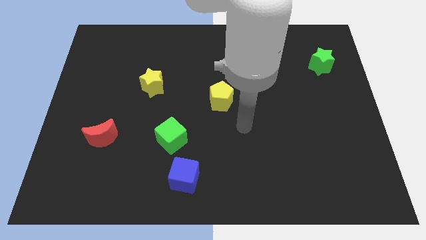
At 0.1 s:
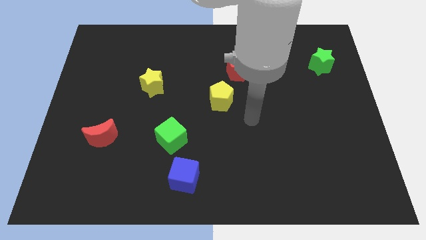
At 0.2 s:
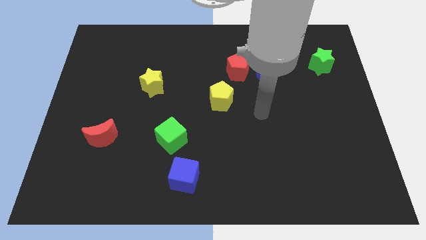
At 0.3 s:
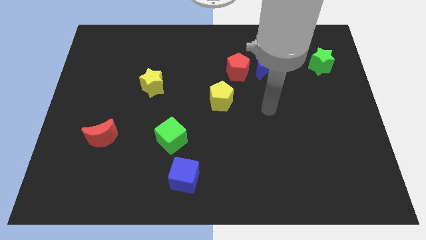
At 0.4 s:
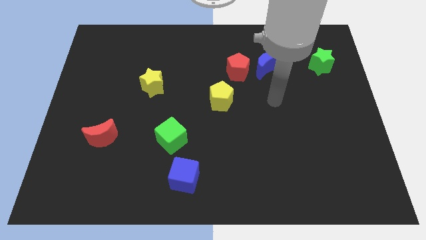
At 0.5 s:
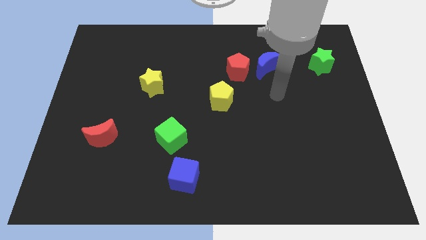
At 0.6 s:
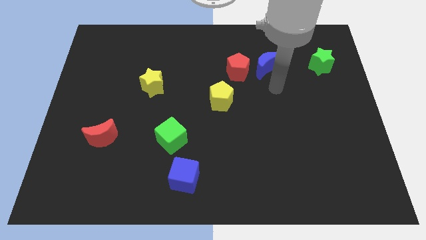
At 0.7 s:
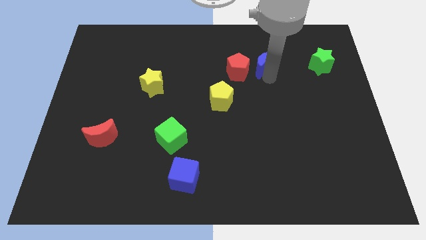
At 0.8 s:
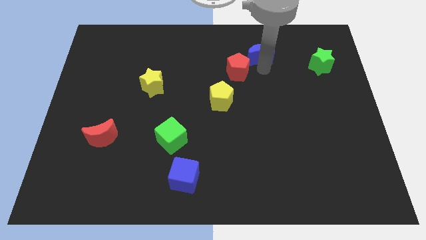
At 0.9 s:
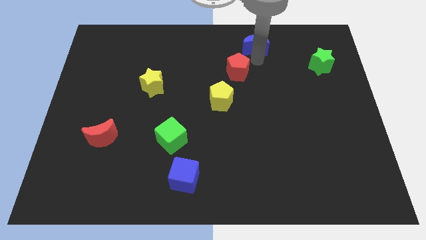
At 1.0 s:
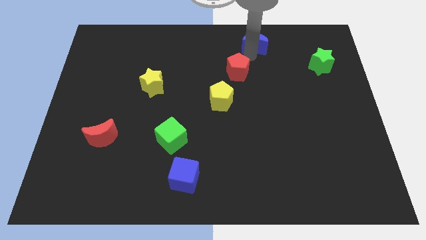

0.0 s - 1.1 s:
move the red pentagon away from the blue moon

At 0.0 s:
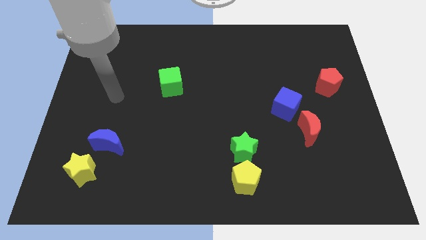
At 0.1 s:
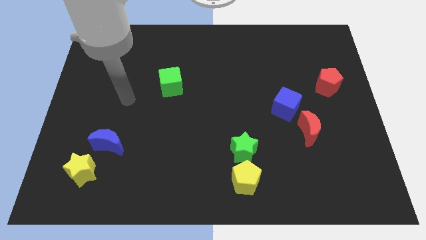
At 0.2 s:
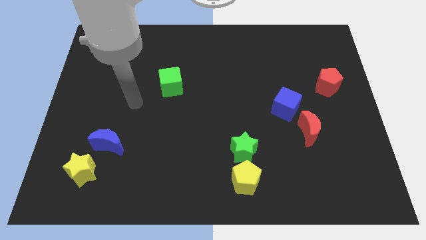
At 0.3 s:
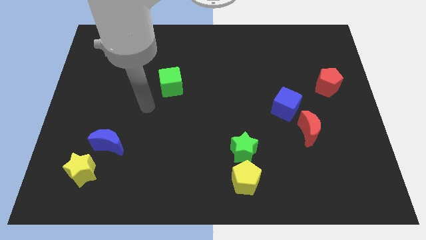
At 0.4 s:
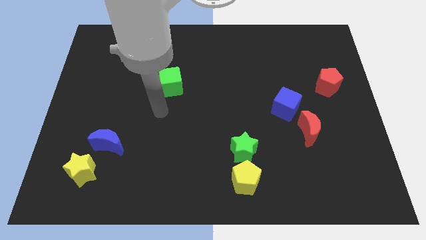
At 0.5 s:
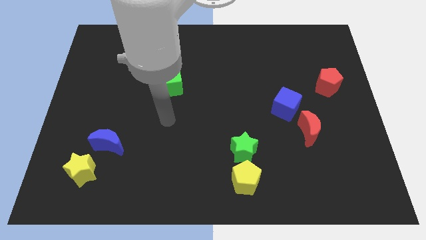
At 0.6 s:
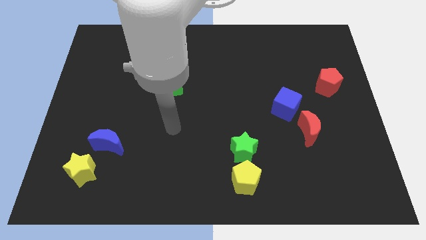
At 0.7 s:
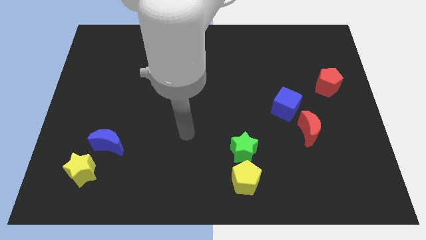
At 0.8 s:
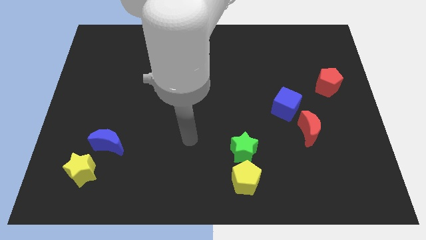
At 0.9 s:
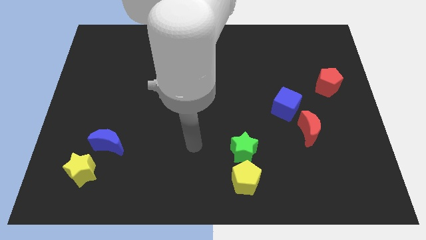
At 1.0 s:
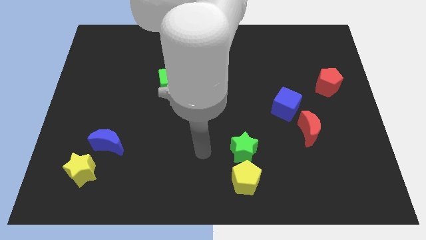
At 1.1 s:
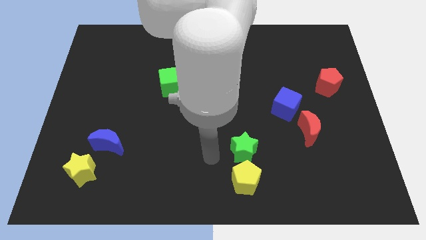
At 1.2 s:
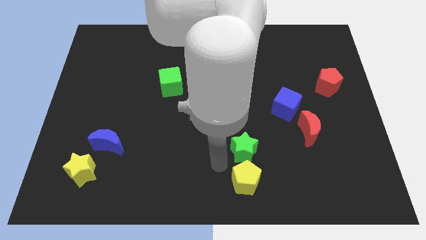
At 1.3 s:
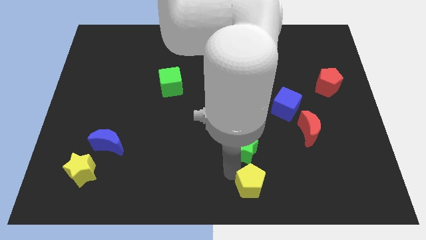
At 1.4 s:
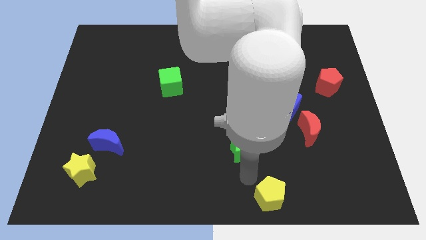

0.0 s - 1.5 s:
separate the green star from the yellow pentagon

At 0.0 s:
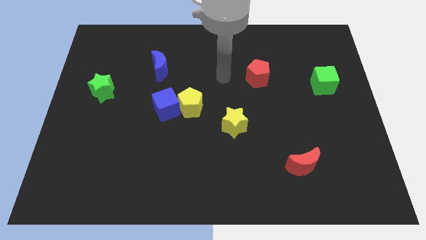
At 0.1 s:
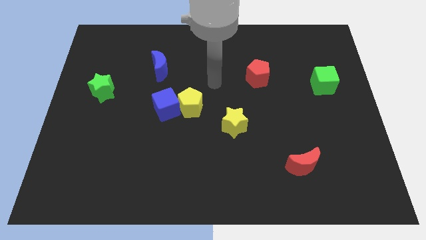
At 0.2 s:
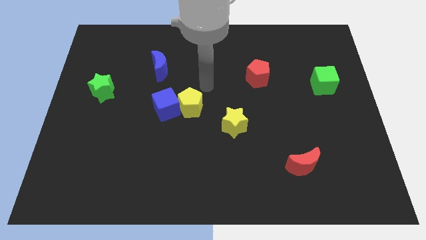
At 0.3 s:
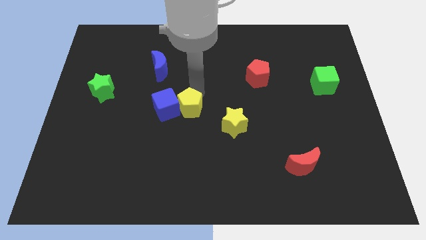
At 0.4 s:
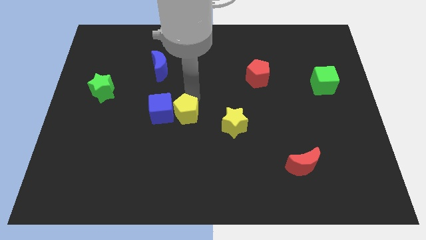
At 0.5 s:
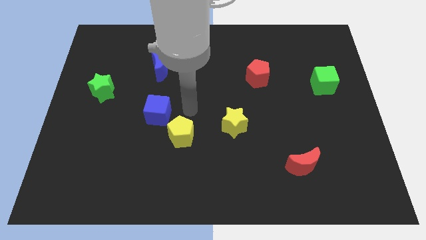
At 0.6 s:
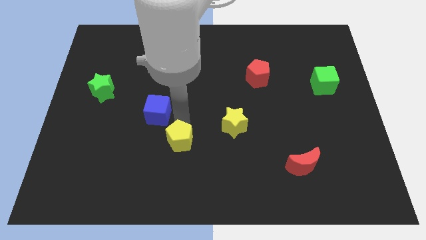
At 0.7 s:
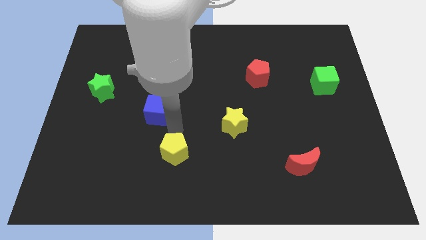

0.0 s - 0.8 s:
pull the blue cube apart from the yellow pentagon

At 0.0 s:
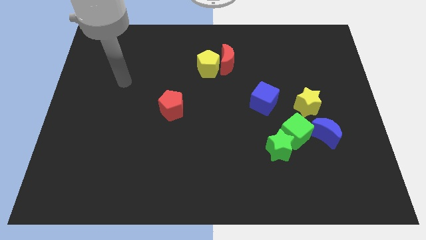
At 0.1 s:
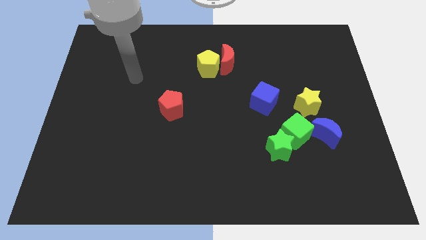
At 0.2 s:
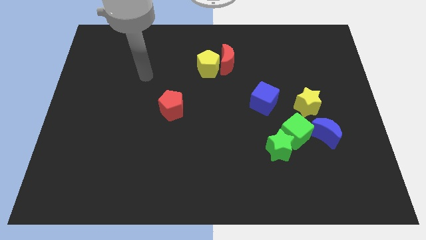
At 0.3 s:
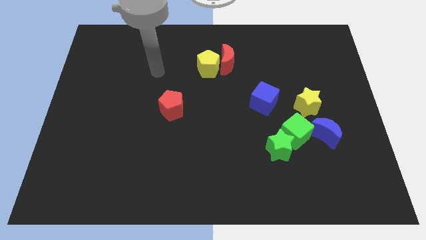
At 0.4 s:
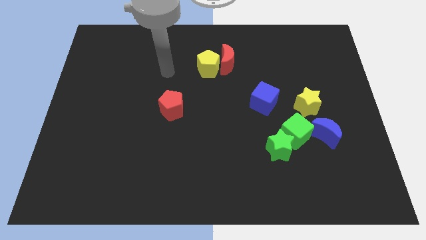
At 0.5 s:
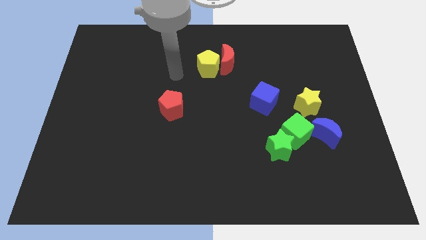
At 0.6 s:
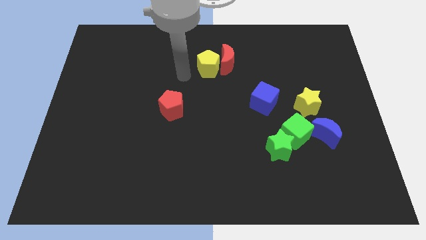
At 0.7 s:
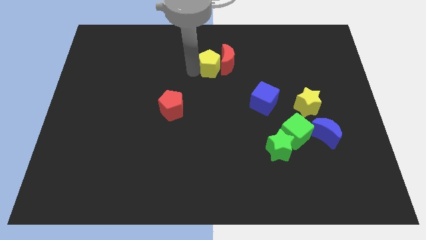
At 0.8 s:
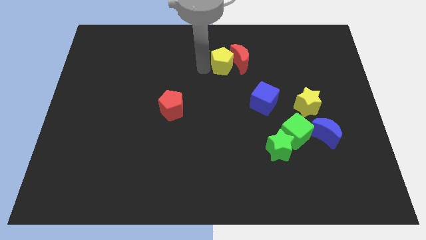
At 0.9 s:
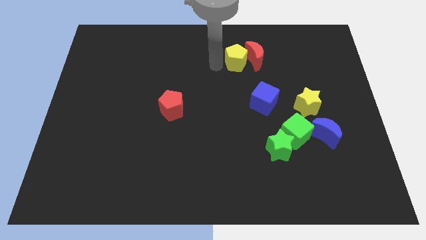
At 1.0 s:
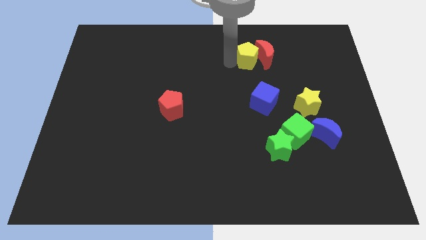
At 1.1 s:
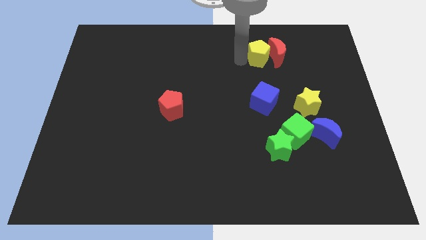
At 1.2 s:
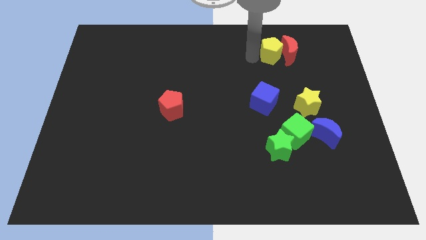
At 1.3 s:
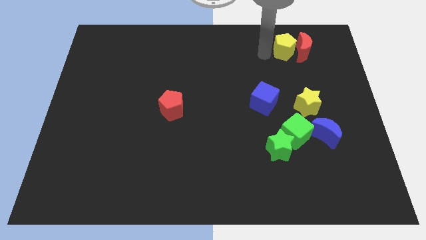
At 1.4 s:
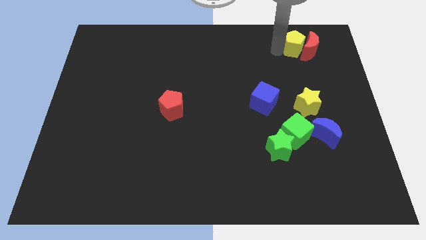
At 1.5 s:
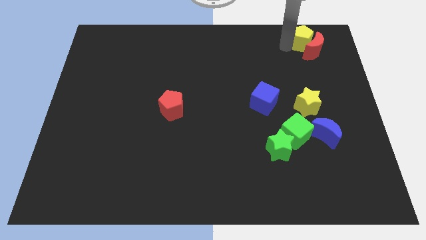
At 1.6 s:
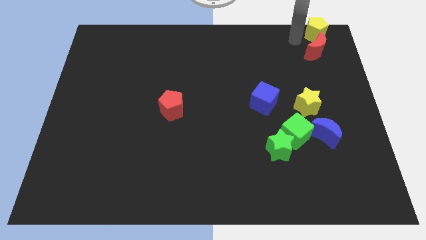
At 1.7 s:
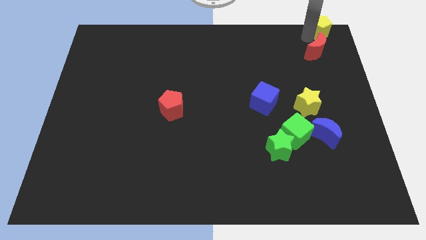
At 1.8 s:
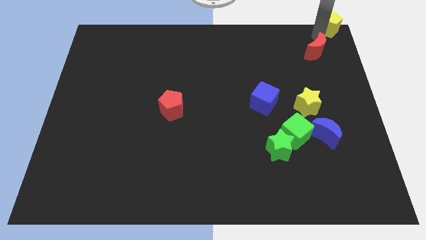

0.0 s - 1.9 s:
move the red moon away from the yellow pentagon

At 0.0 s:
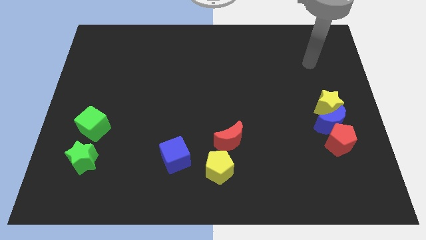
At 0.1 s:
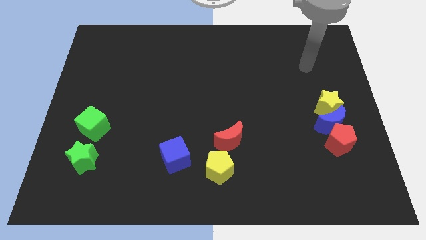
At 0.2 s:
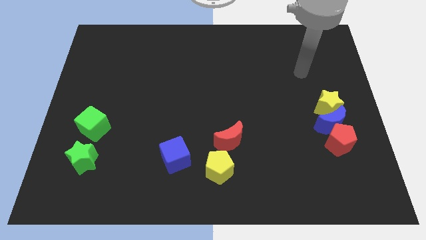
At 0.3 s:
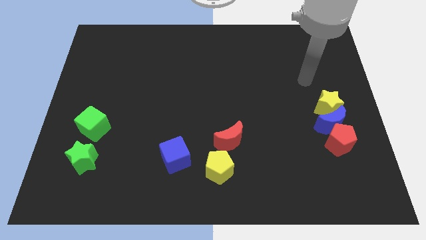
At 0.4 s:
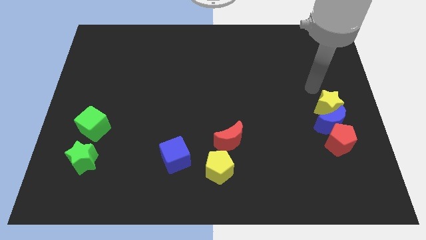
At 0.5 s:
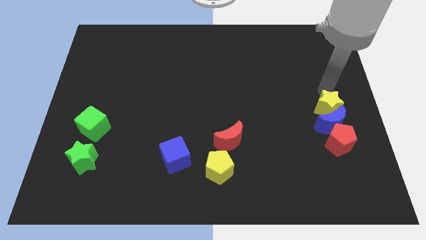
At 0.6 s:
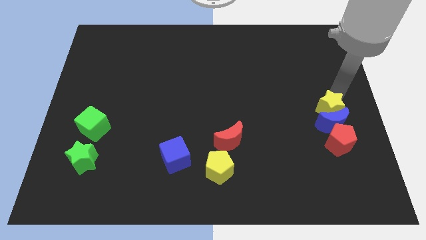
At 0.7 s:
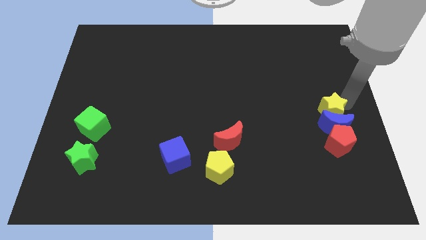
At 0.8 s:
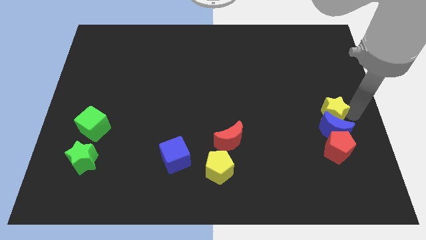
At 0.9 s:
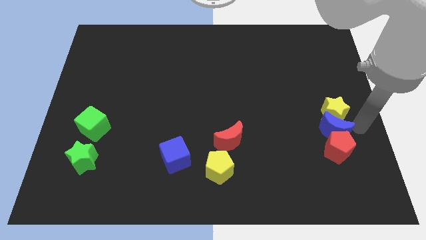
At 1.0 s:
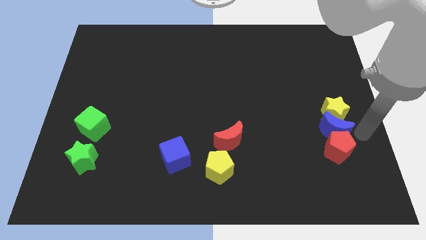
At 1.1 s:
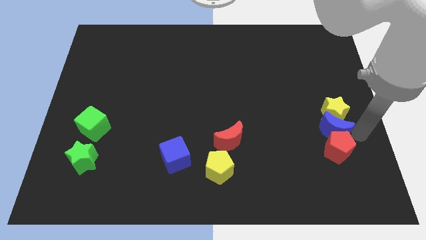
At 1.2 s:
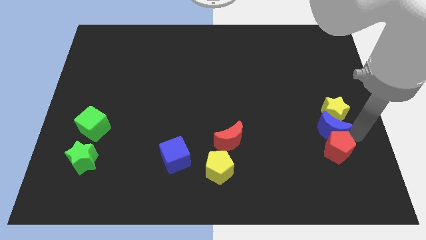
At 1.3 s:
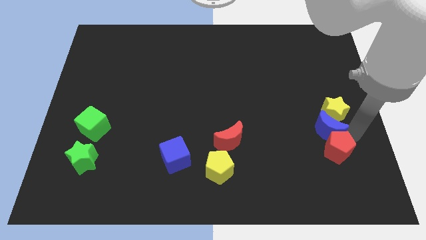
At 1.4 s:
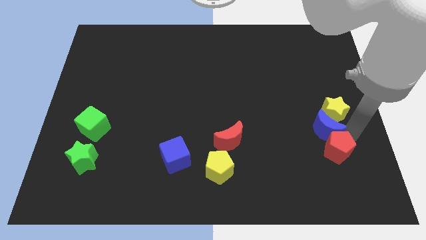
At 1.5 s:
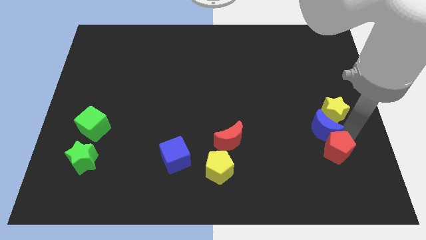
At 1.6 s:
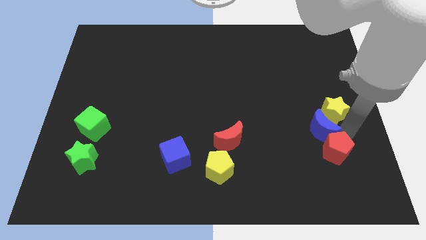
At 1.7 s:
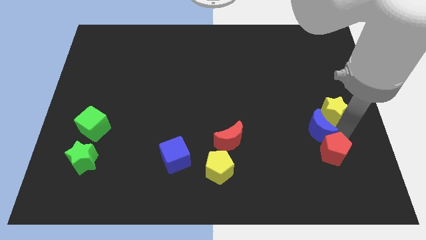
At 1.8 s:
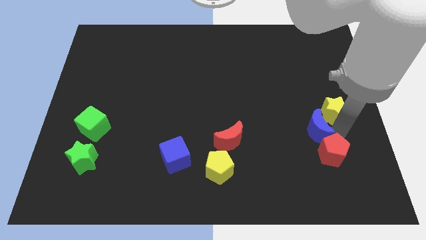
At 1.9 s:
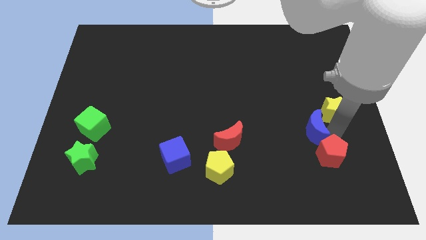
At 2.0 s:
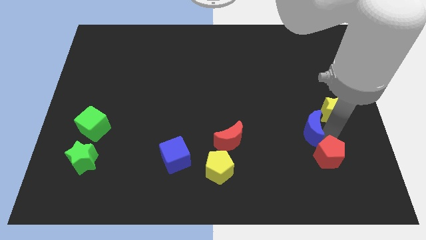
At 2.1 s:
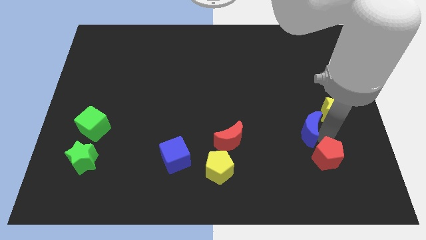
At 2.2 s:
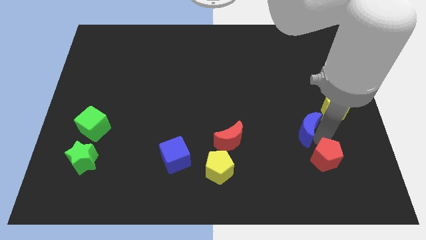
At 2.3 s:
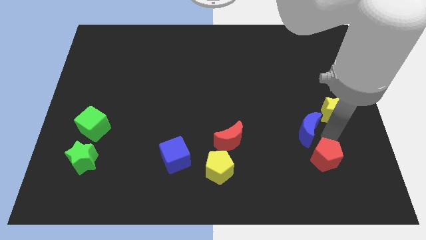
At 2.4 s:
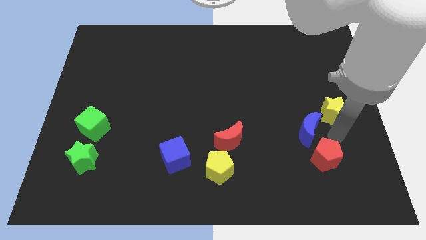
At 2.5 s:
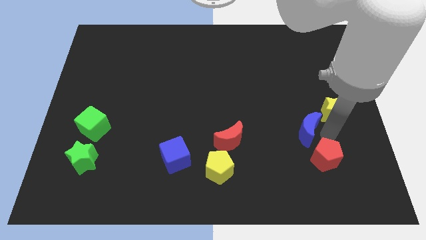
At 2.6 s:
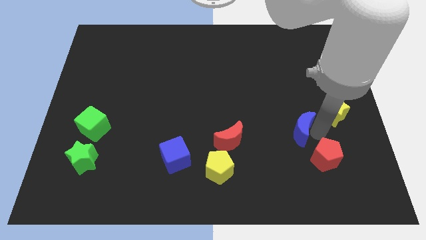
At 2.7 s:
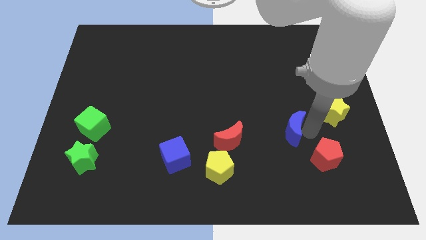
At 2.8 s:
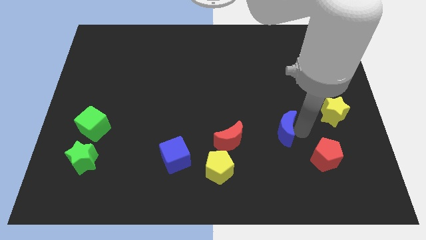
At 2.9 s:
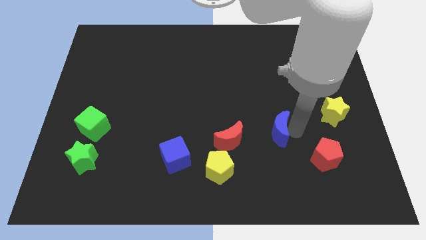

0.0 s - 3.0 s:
separate the blue moon from the yellow star and red pentagon

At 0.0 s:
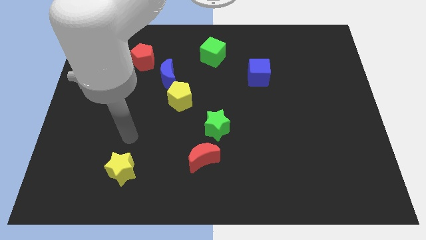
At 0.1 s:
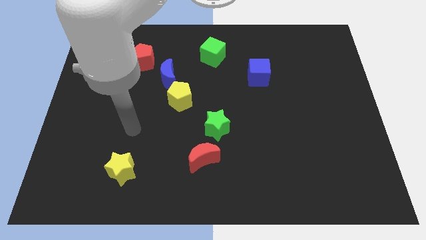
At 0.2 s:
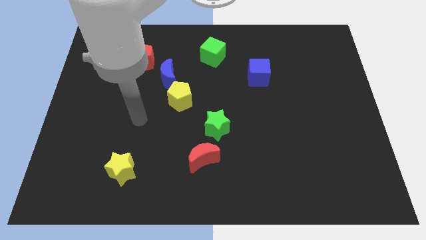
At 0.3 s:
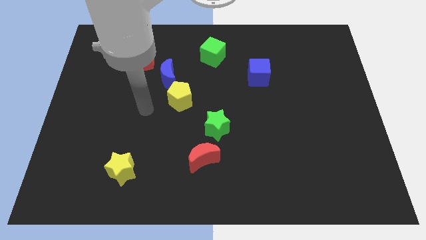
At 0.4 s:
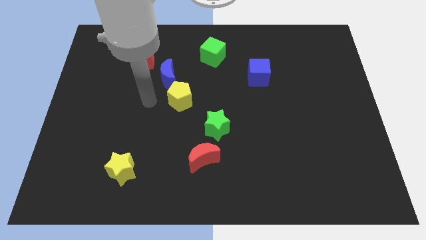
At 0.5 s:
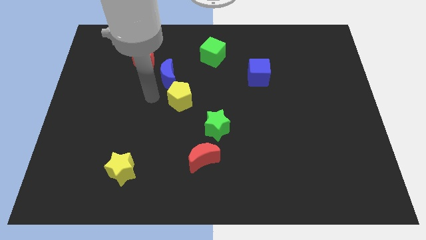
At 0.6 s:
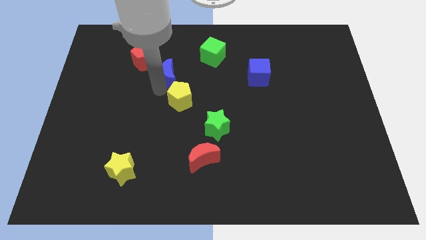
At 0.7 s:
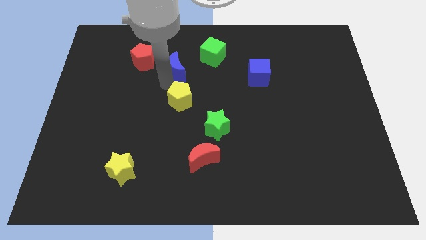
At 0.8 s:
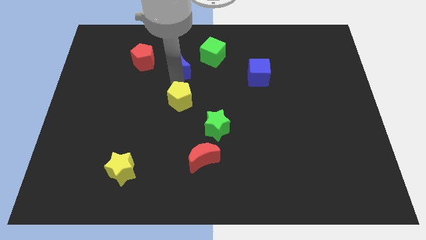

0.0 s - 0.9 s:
pull the yellow pentagon apart from the blue moon
